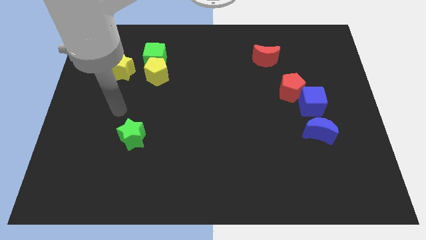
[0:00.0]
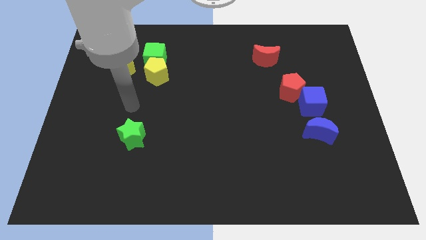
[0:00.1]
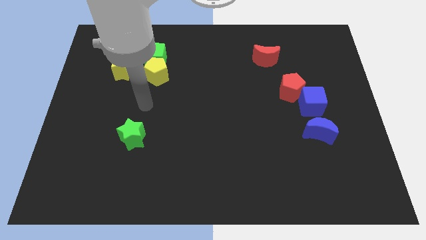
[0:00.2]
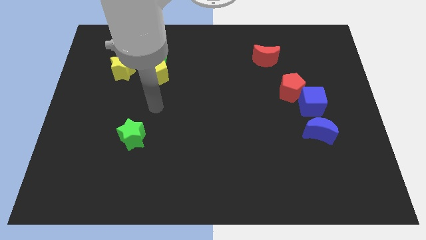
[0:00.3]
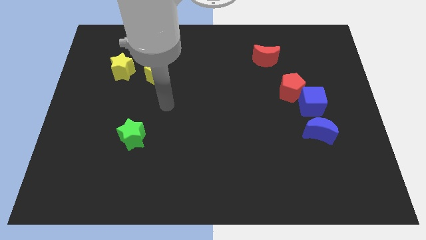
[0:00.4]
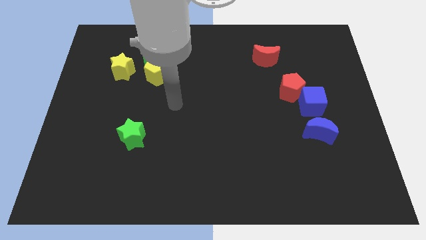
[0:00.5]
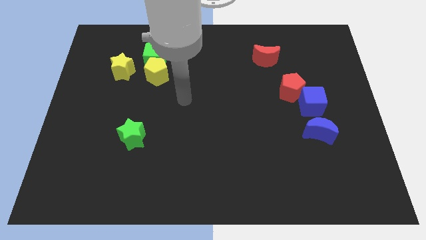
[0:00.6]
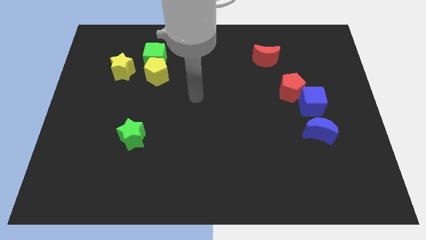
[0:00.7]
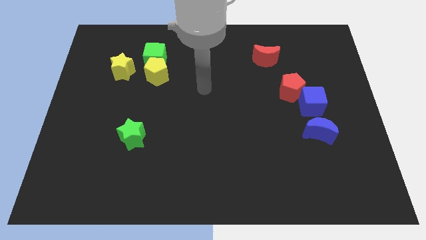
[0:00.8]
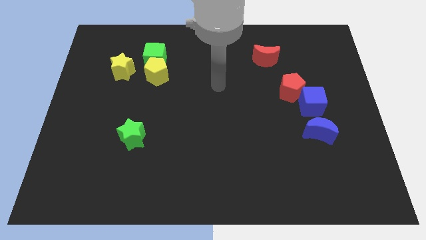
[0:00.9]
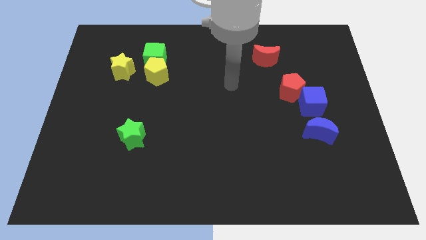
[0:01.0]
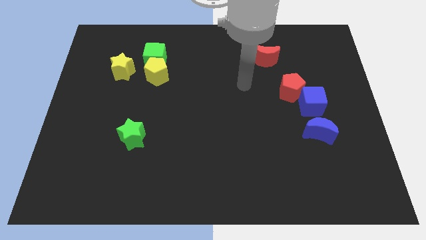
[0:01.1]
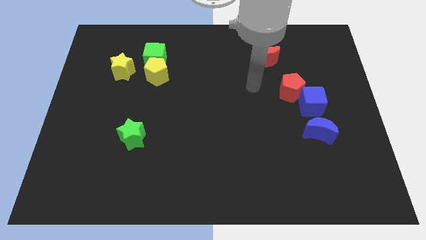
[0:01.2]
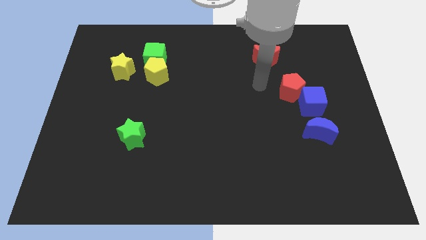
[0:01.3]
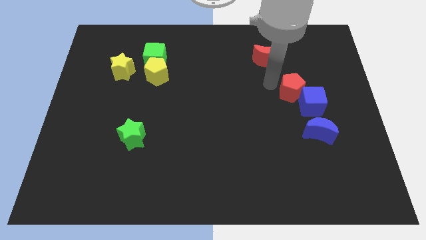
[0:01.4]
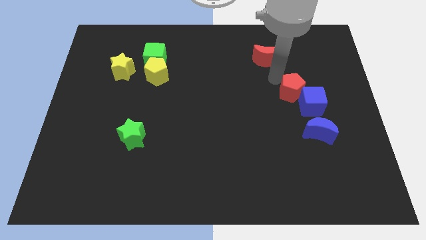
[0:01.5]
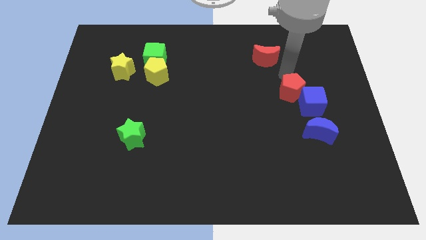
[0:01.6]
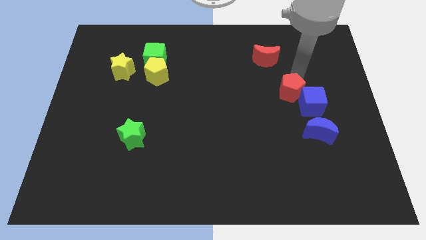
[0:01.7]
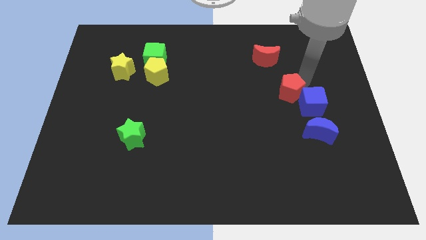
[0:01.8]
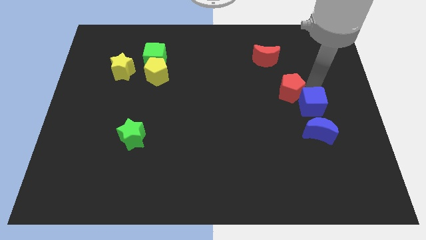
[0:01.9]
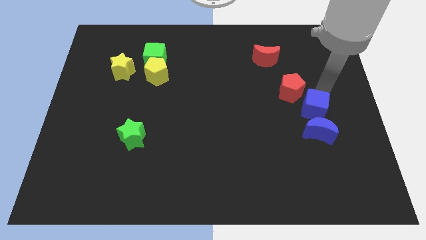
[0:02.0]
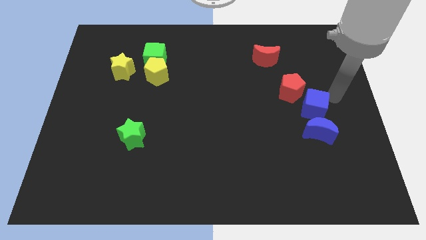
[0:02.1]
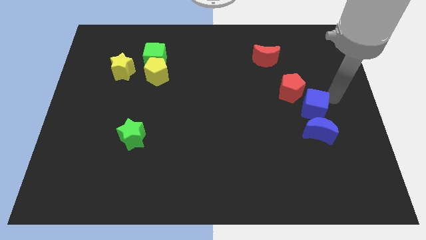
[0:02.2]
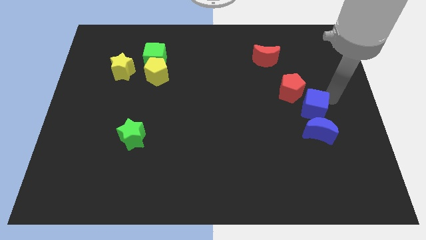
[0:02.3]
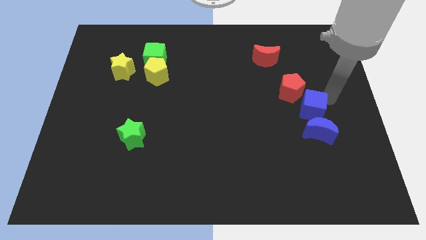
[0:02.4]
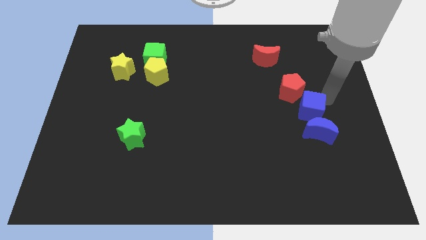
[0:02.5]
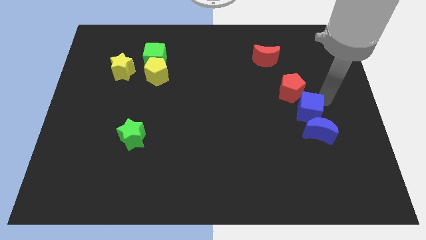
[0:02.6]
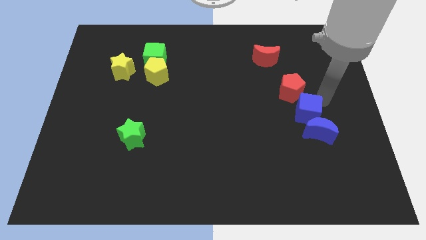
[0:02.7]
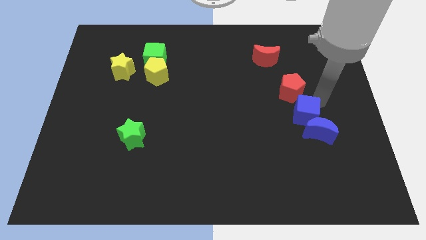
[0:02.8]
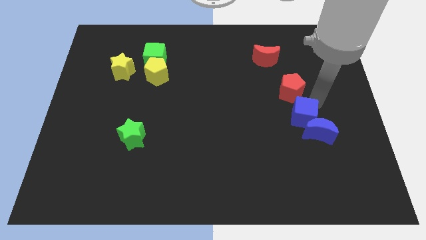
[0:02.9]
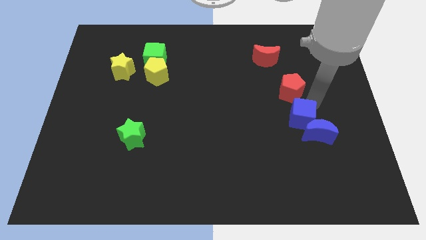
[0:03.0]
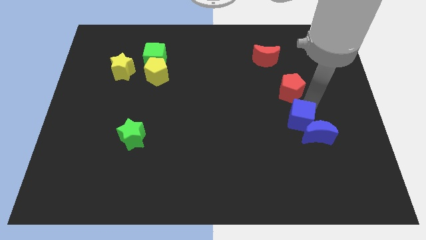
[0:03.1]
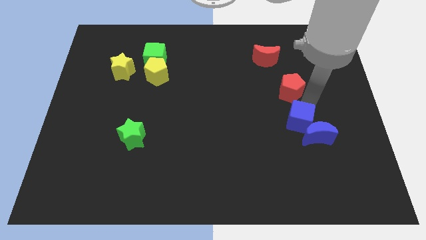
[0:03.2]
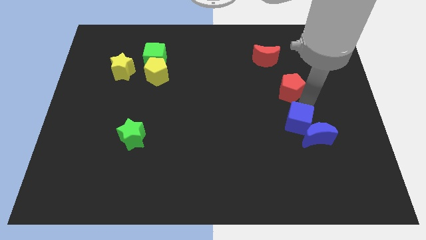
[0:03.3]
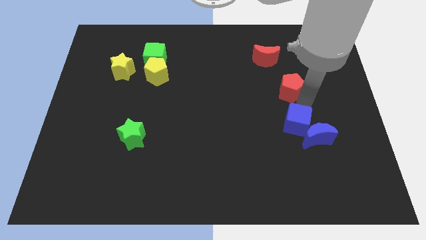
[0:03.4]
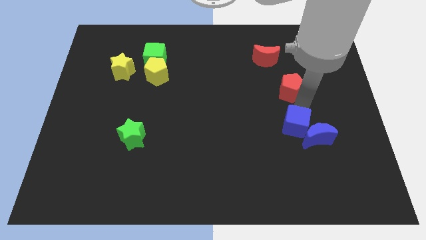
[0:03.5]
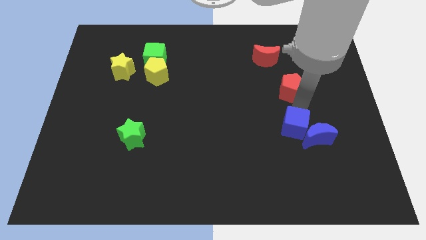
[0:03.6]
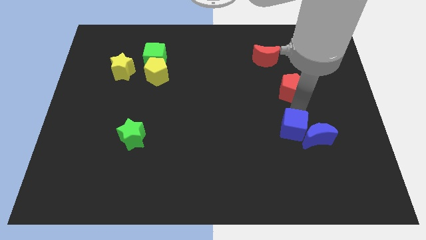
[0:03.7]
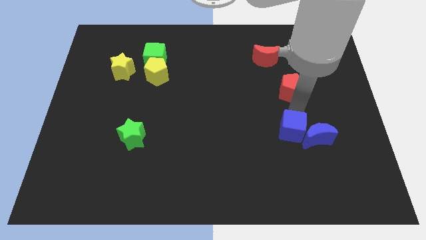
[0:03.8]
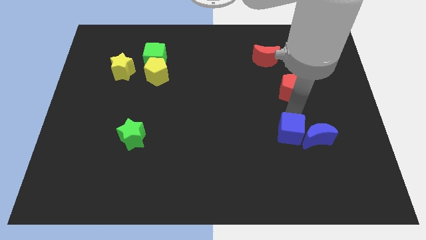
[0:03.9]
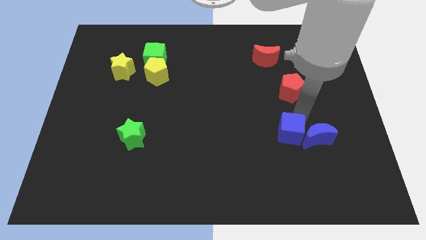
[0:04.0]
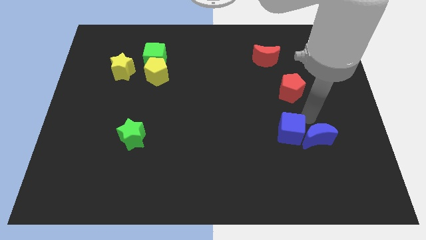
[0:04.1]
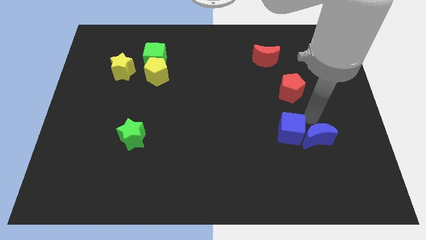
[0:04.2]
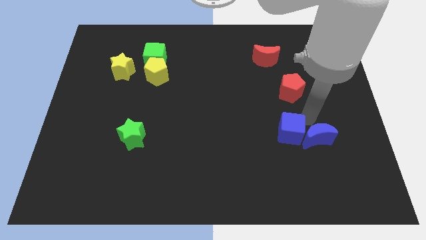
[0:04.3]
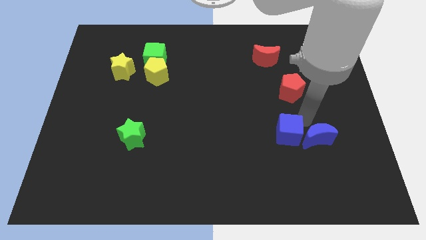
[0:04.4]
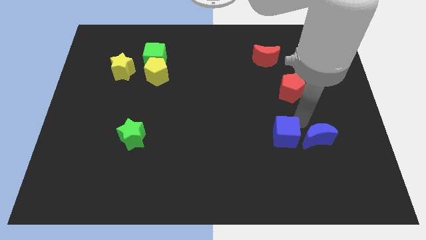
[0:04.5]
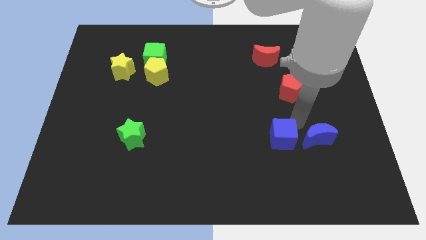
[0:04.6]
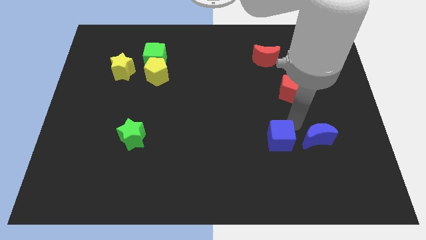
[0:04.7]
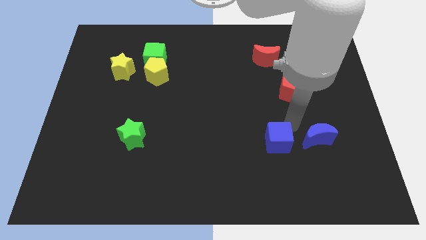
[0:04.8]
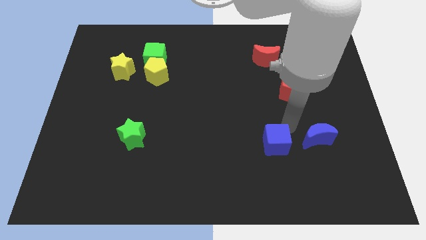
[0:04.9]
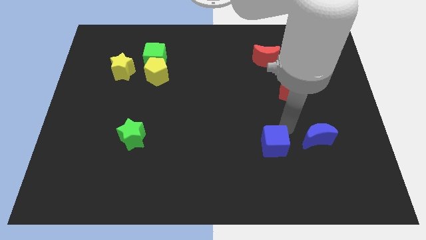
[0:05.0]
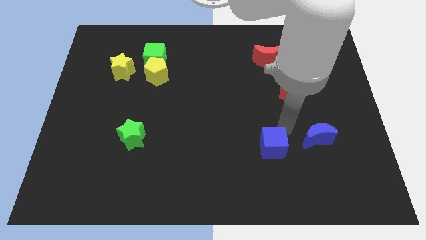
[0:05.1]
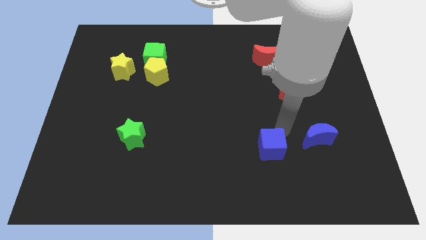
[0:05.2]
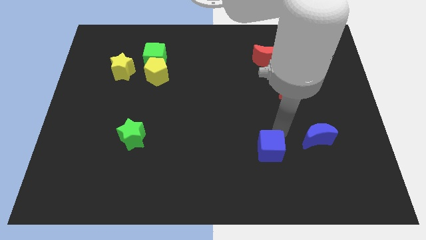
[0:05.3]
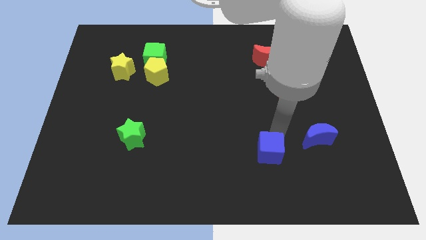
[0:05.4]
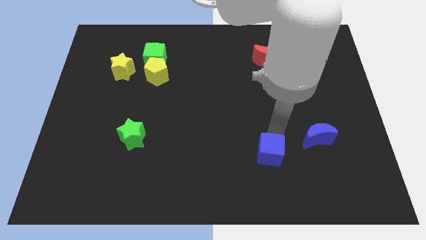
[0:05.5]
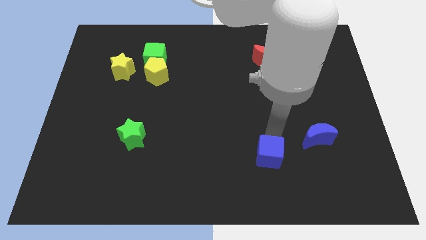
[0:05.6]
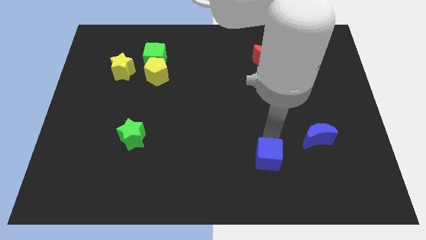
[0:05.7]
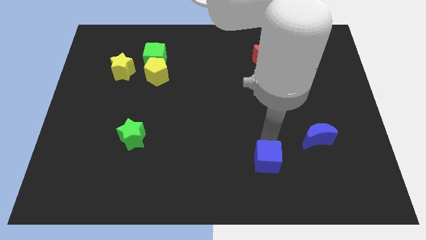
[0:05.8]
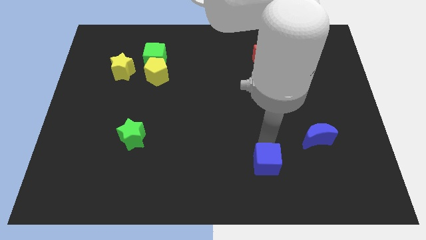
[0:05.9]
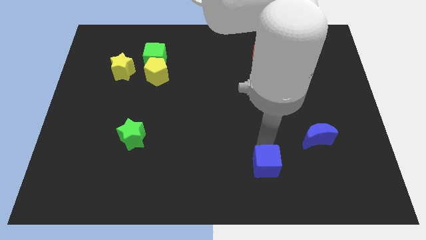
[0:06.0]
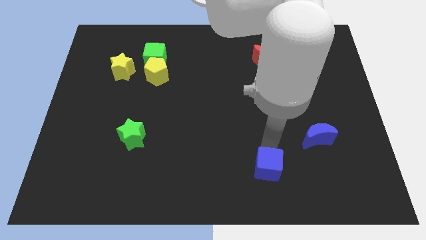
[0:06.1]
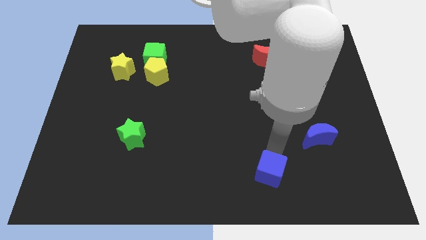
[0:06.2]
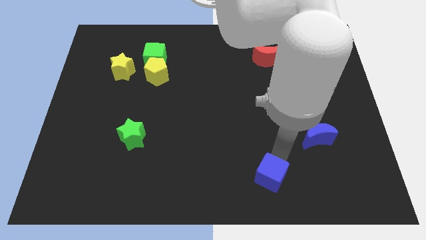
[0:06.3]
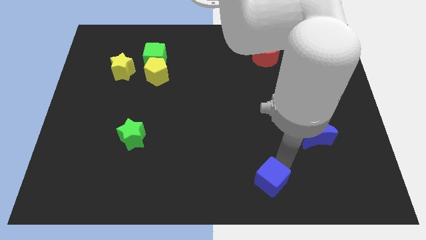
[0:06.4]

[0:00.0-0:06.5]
move the blue cube to the bottom
